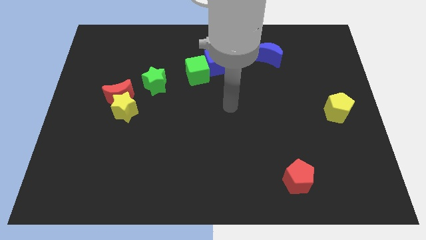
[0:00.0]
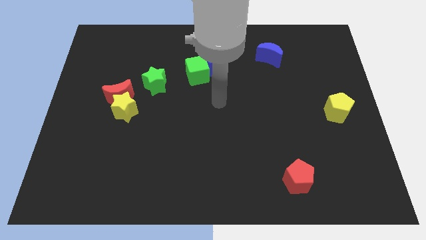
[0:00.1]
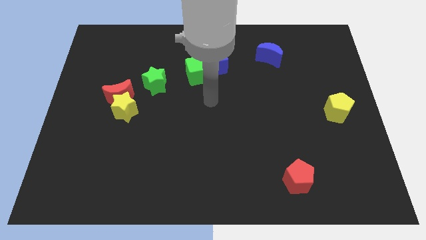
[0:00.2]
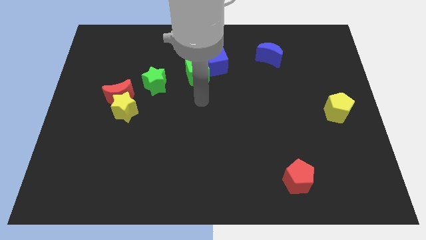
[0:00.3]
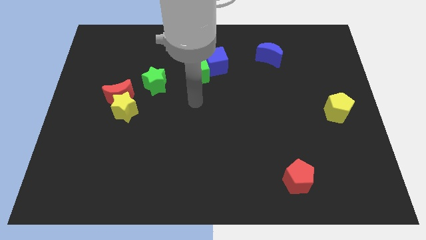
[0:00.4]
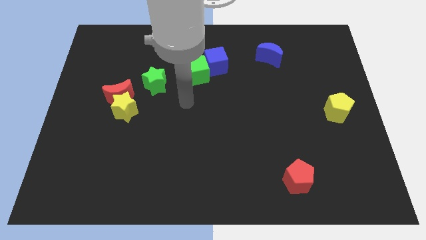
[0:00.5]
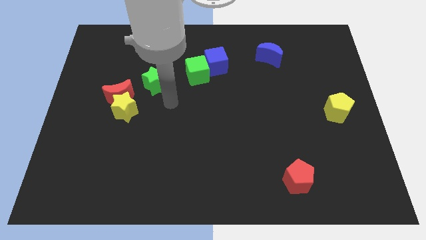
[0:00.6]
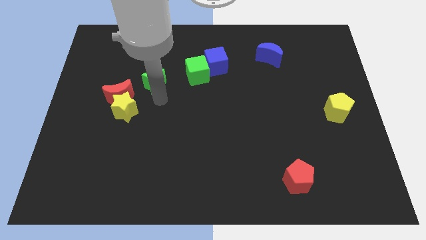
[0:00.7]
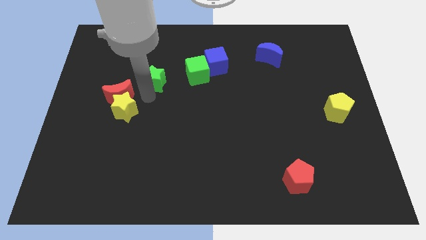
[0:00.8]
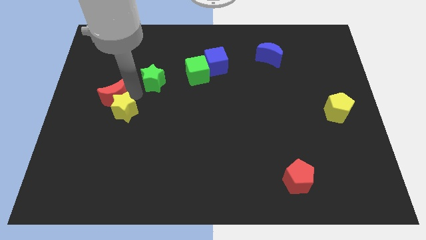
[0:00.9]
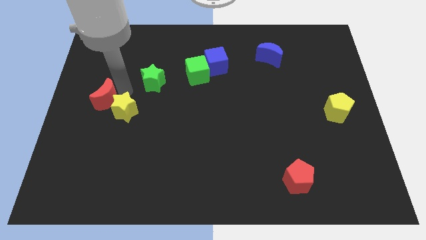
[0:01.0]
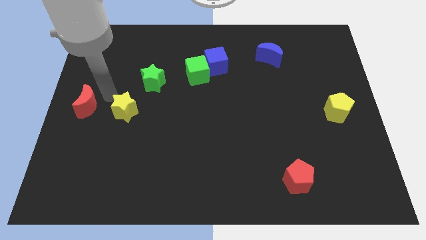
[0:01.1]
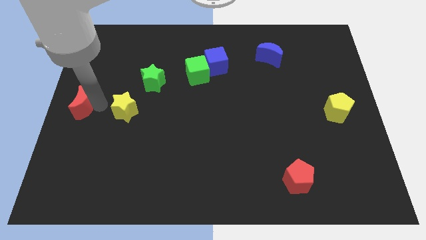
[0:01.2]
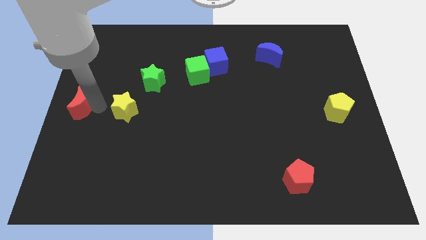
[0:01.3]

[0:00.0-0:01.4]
separate the yellow star from the red moon

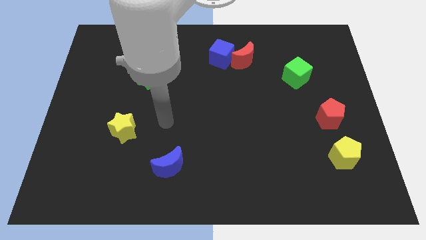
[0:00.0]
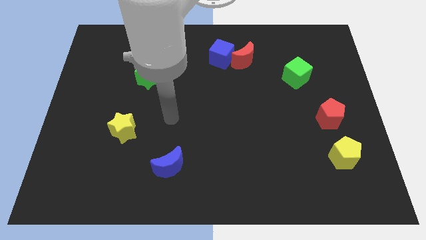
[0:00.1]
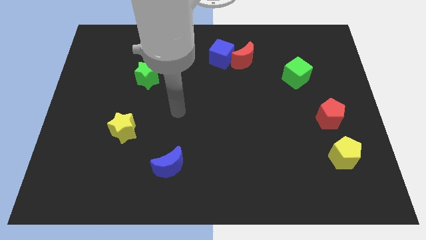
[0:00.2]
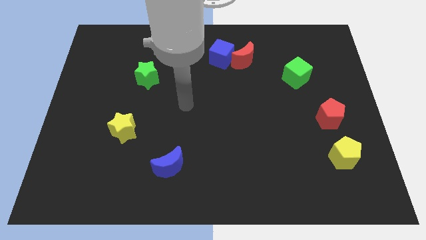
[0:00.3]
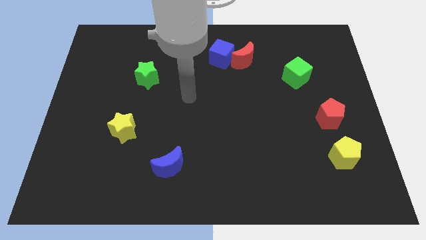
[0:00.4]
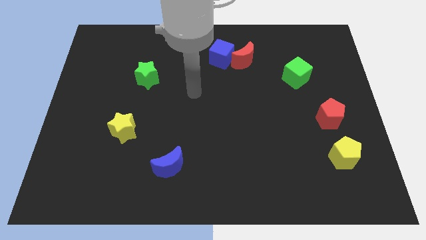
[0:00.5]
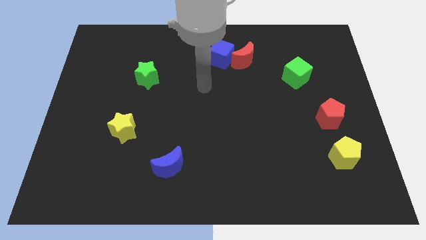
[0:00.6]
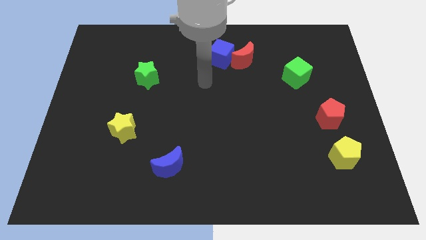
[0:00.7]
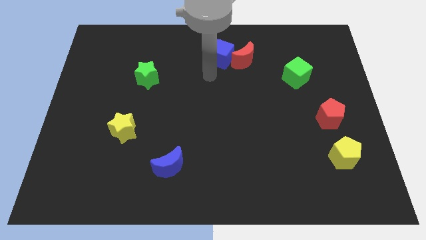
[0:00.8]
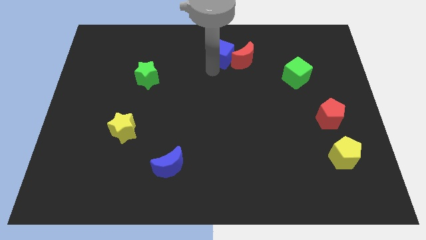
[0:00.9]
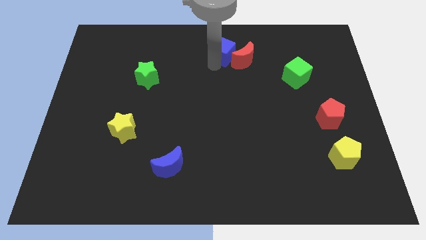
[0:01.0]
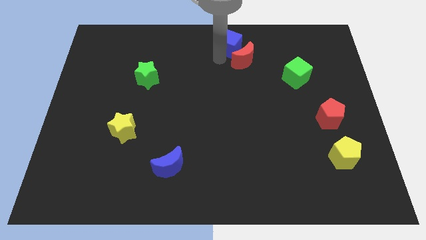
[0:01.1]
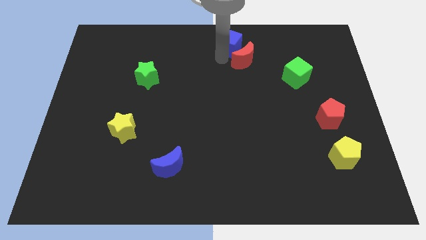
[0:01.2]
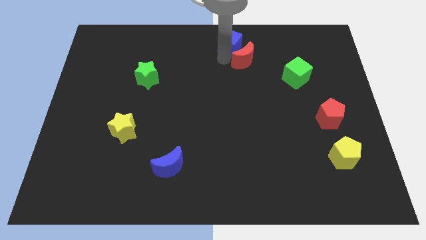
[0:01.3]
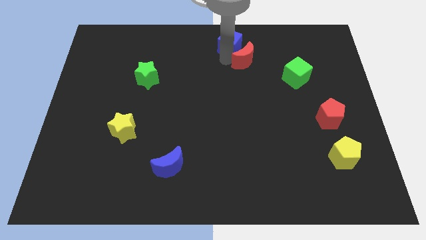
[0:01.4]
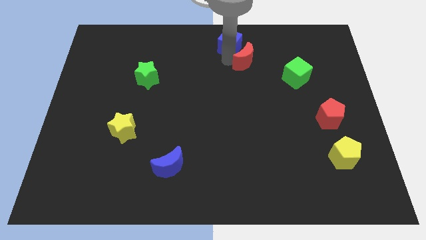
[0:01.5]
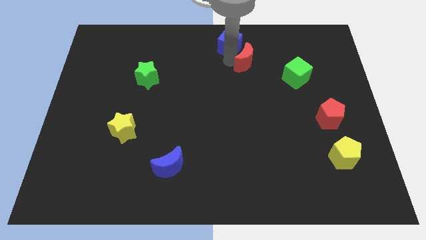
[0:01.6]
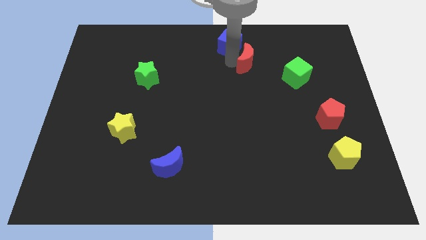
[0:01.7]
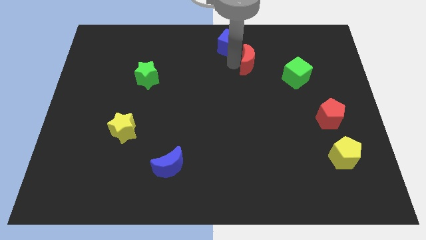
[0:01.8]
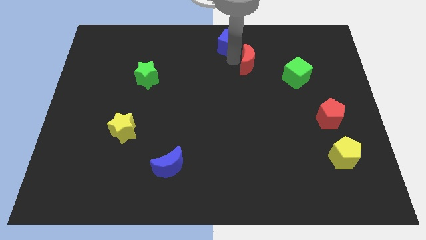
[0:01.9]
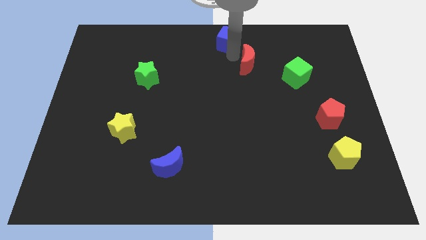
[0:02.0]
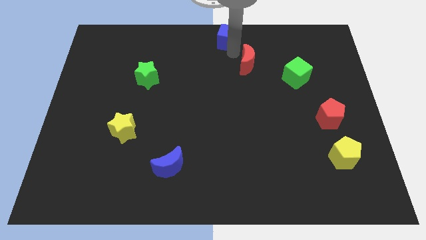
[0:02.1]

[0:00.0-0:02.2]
move the red moon away from the blue cube

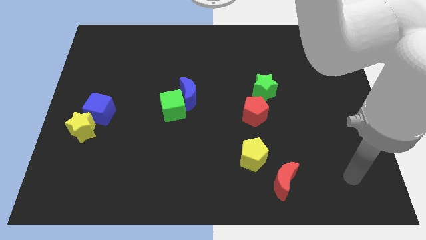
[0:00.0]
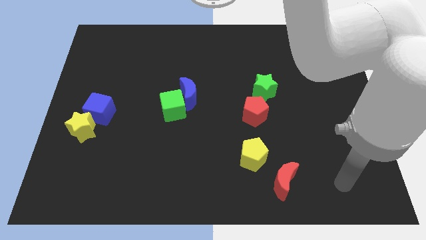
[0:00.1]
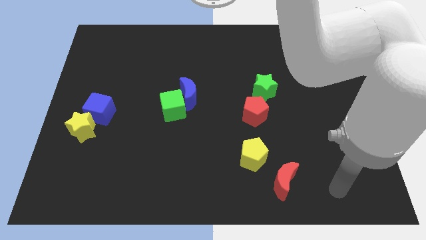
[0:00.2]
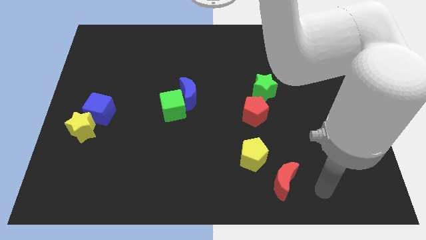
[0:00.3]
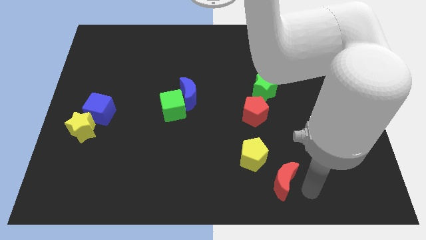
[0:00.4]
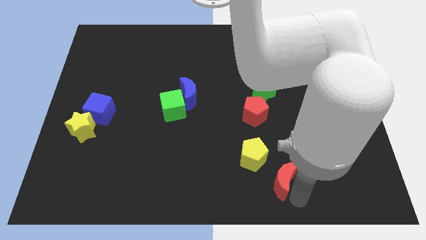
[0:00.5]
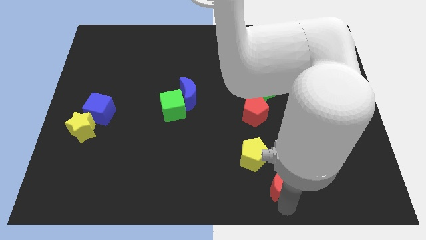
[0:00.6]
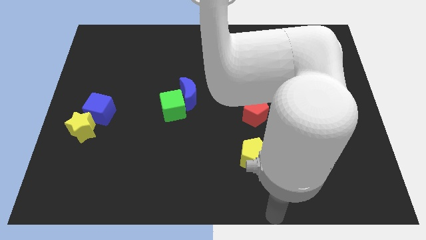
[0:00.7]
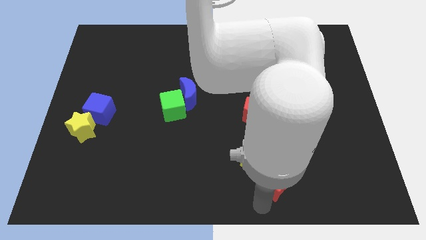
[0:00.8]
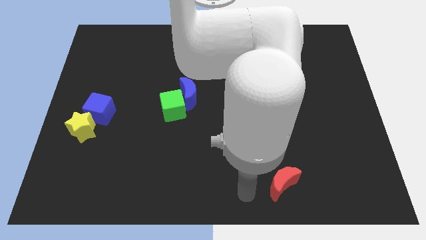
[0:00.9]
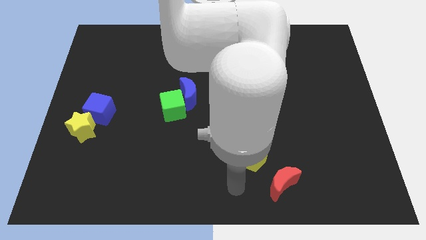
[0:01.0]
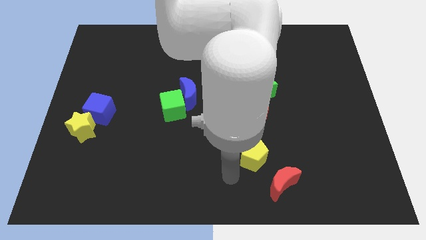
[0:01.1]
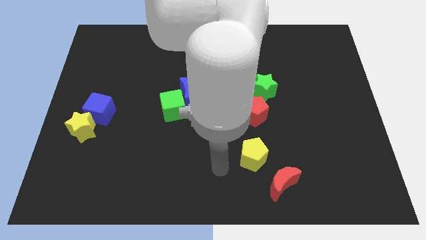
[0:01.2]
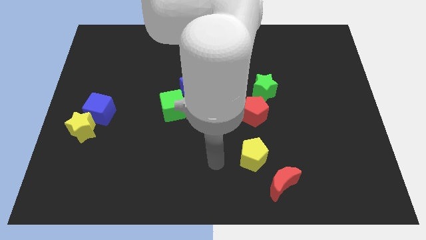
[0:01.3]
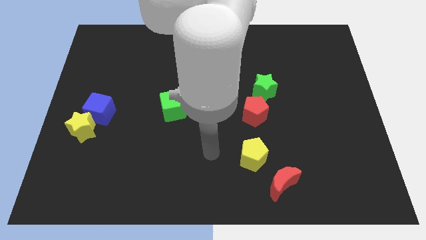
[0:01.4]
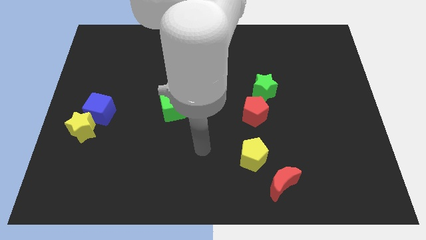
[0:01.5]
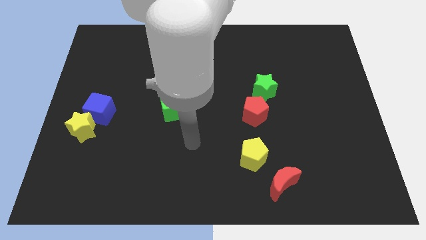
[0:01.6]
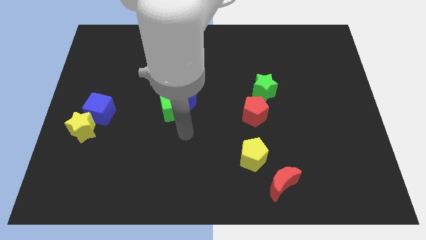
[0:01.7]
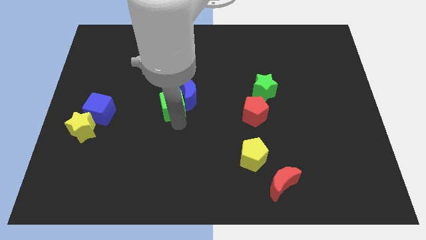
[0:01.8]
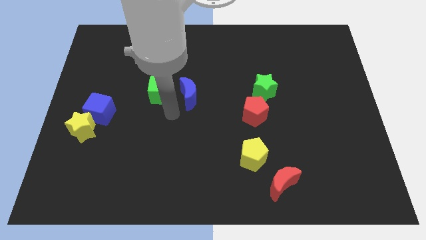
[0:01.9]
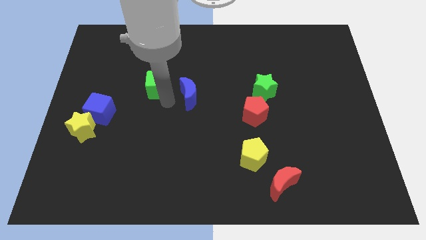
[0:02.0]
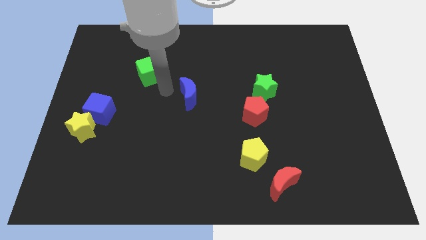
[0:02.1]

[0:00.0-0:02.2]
move the blue moon away from the green cube

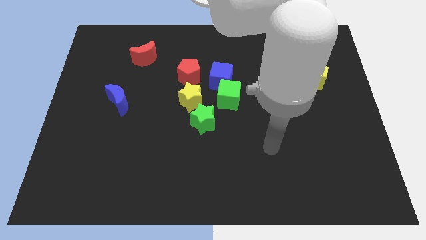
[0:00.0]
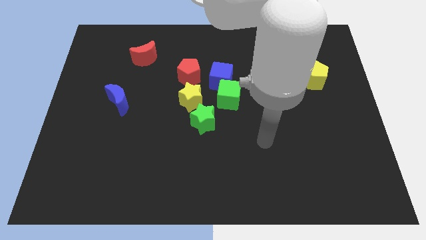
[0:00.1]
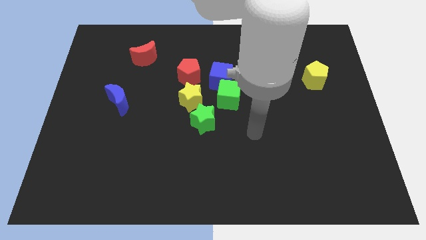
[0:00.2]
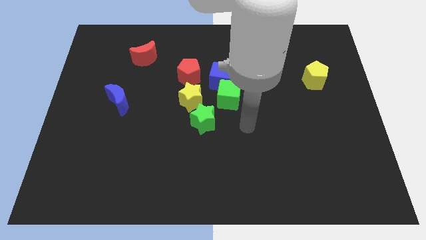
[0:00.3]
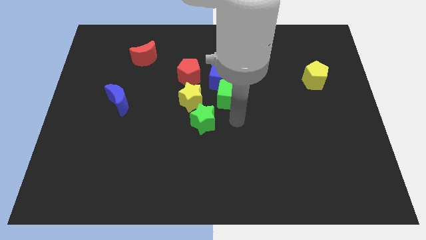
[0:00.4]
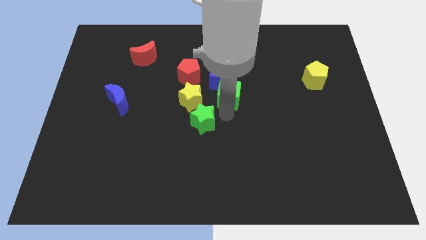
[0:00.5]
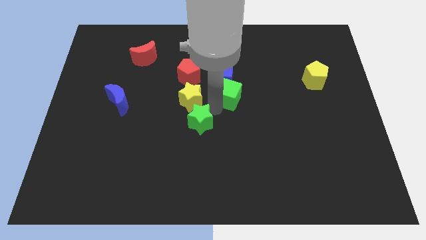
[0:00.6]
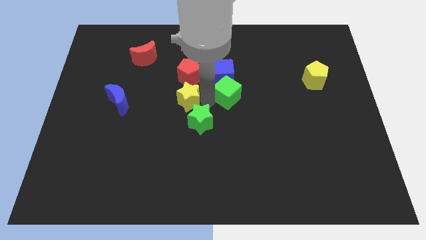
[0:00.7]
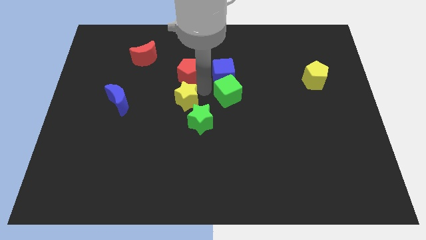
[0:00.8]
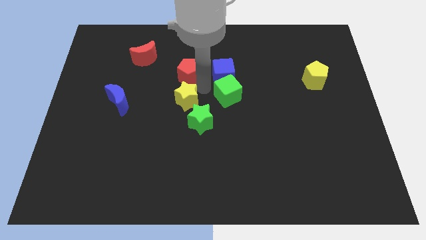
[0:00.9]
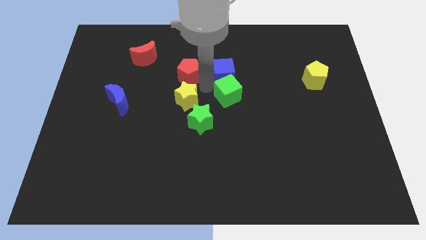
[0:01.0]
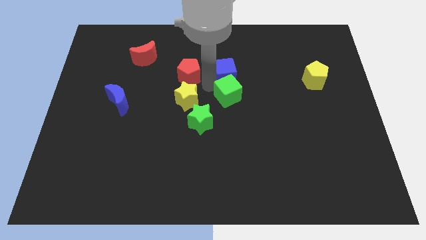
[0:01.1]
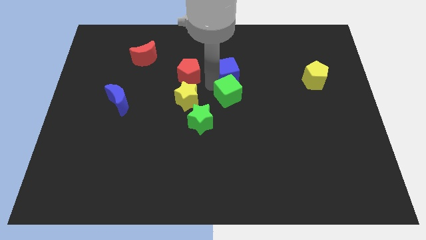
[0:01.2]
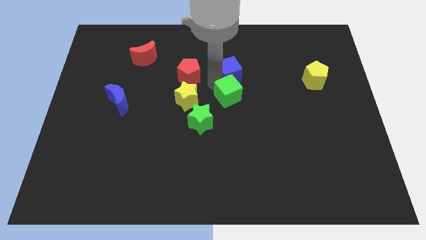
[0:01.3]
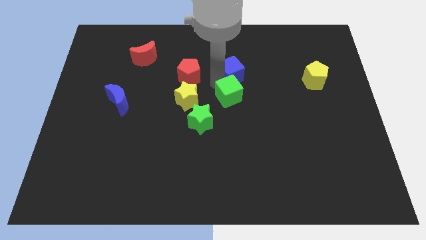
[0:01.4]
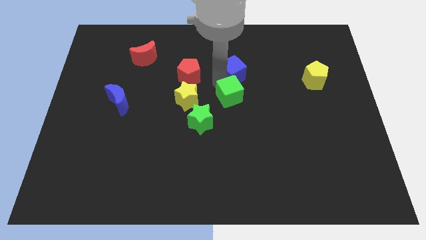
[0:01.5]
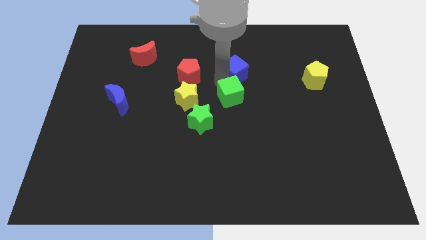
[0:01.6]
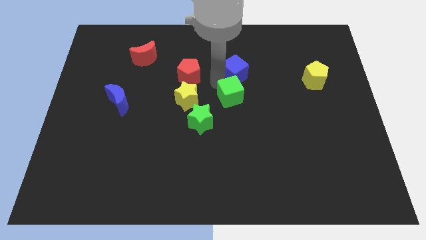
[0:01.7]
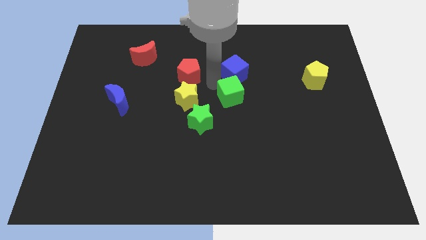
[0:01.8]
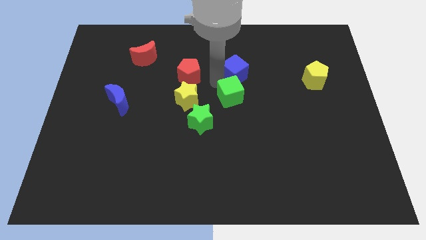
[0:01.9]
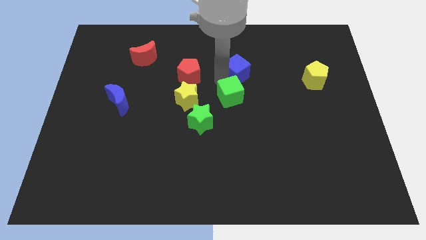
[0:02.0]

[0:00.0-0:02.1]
move the blue cube away from the group of blocks

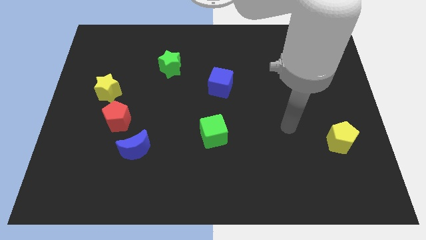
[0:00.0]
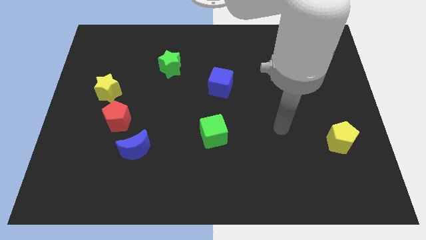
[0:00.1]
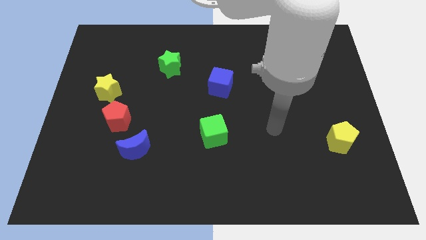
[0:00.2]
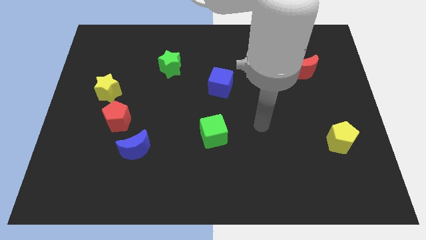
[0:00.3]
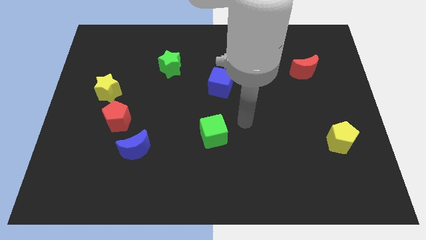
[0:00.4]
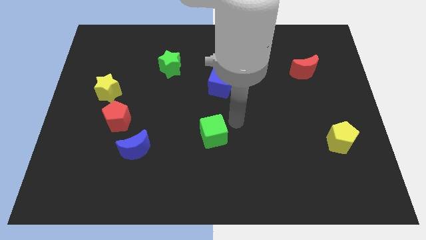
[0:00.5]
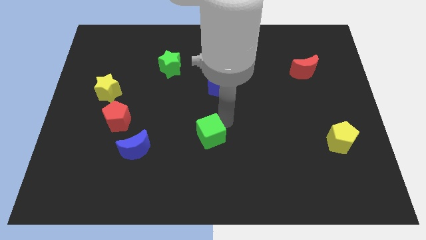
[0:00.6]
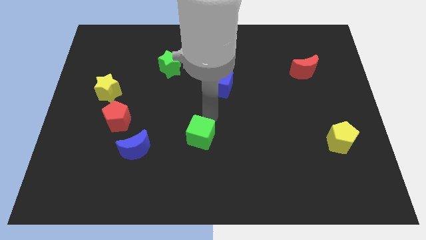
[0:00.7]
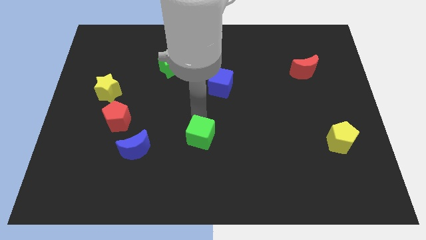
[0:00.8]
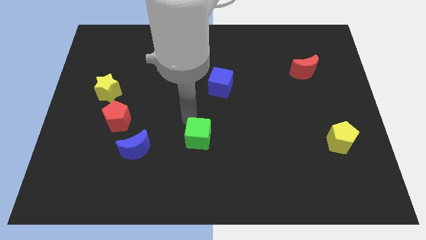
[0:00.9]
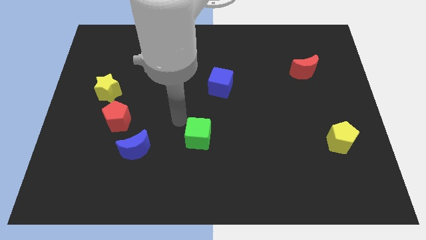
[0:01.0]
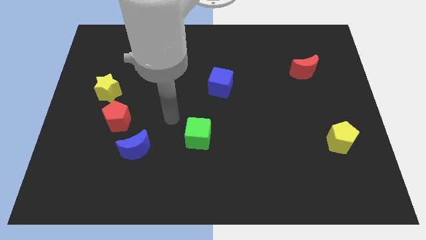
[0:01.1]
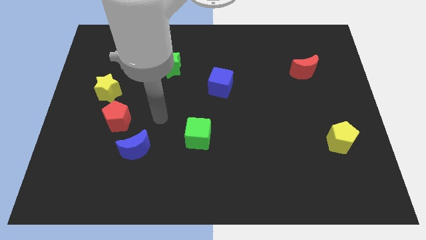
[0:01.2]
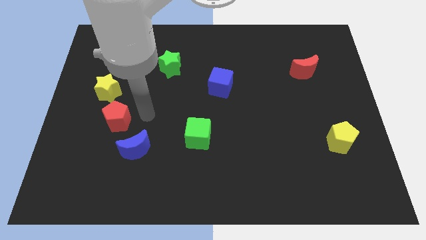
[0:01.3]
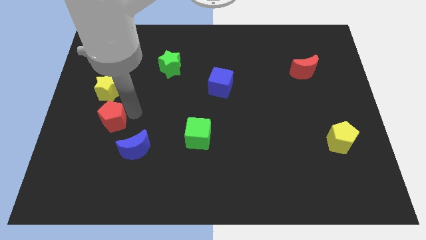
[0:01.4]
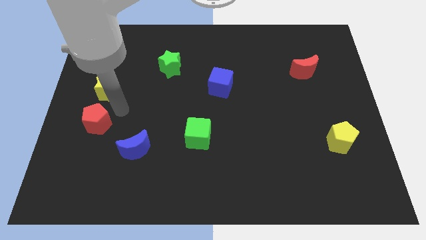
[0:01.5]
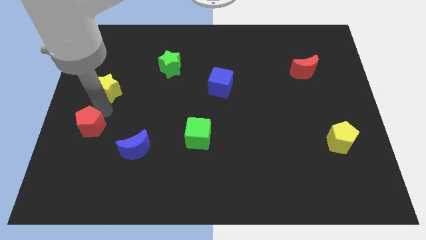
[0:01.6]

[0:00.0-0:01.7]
move the yellow star away from the red pentagon
